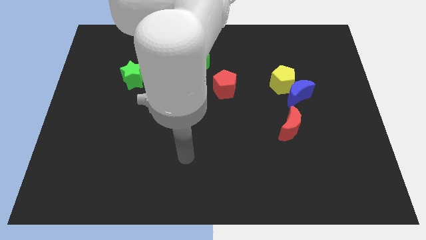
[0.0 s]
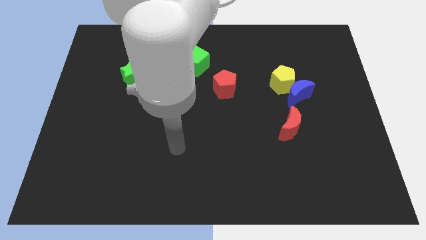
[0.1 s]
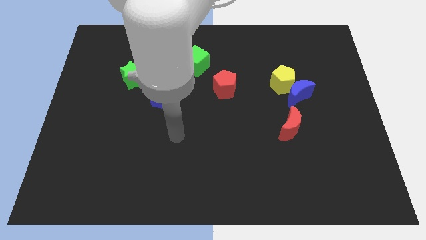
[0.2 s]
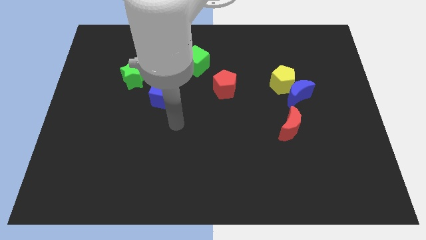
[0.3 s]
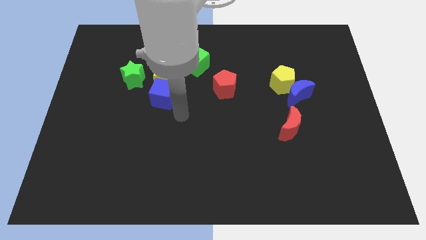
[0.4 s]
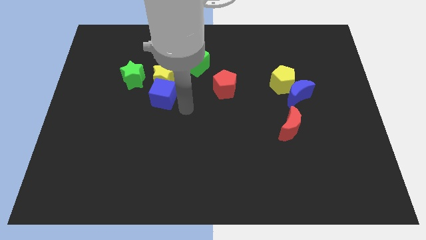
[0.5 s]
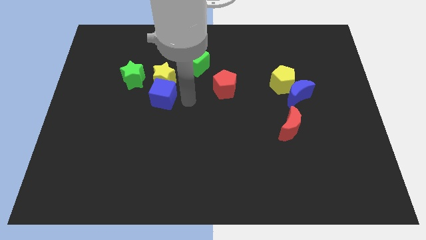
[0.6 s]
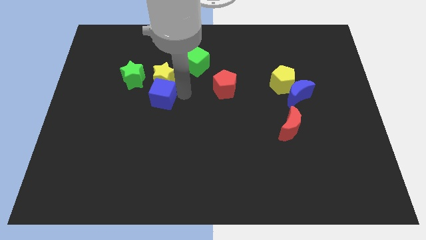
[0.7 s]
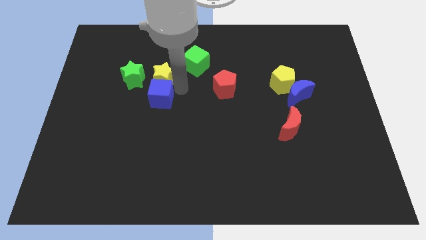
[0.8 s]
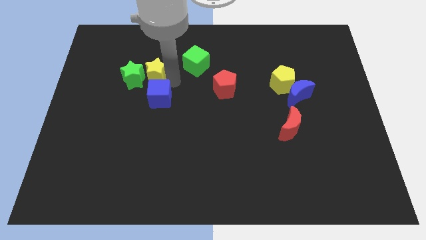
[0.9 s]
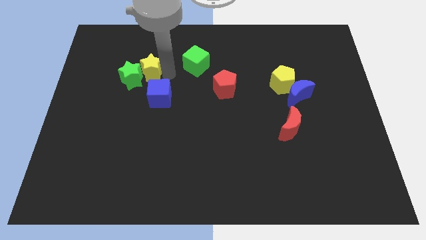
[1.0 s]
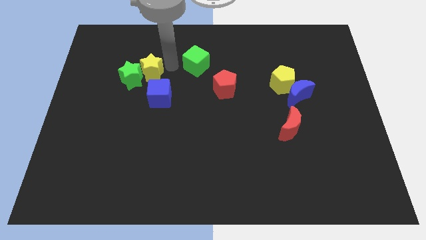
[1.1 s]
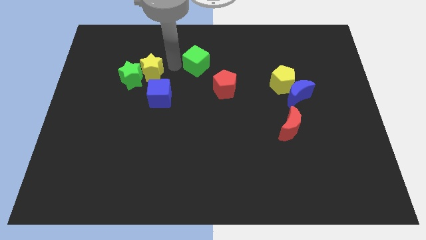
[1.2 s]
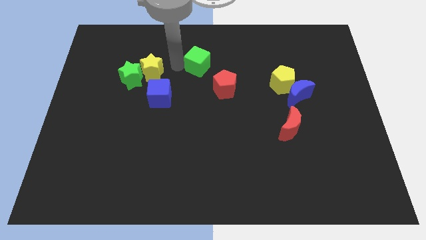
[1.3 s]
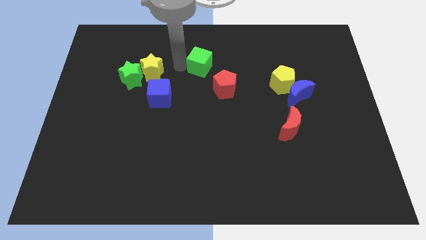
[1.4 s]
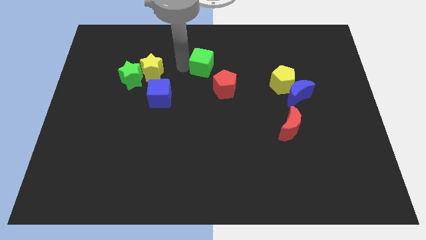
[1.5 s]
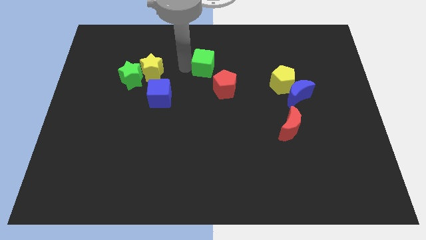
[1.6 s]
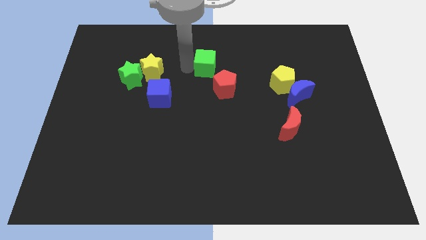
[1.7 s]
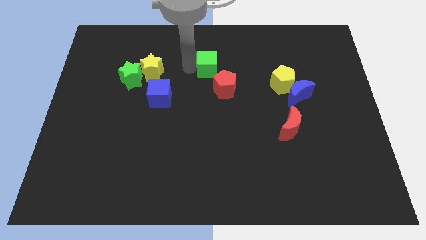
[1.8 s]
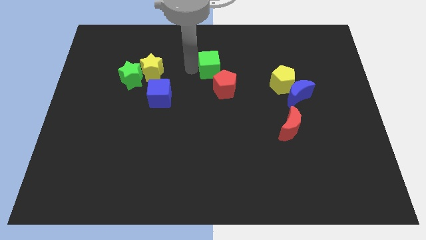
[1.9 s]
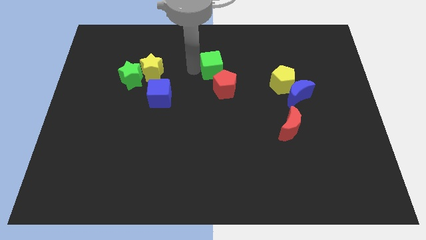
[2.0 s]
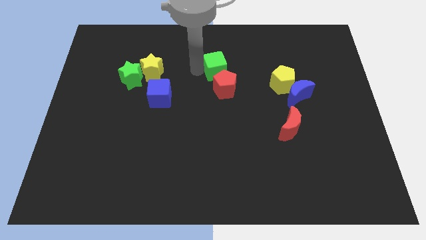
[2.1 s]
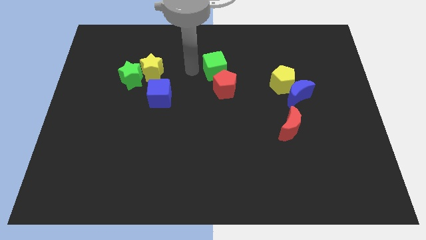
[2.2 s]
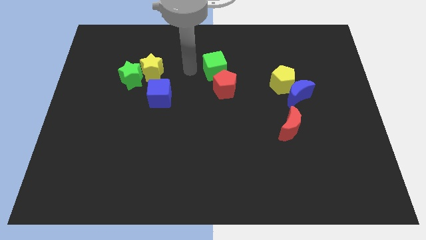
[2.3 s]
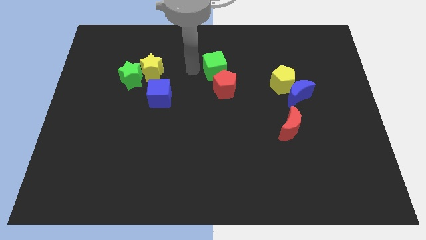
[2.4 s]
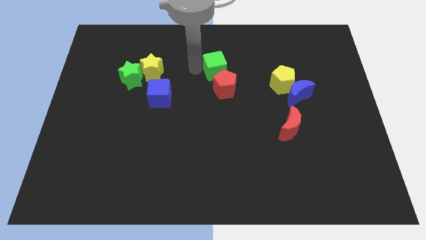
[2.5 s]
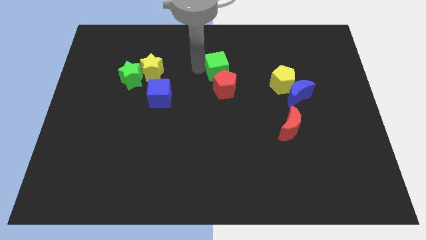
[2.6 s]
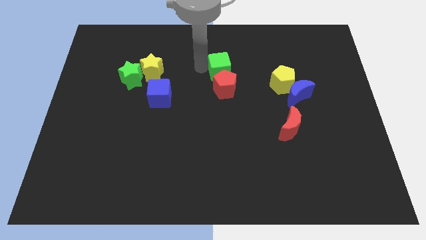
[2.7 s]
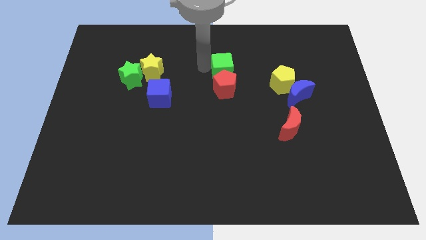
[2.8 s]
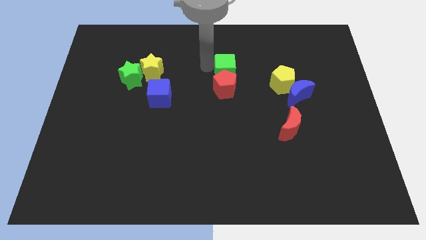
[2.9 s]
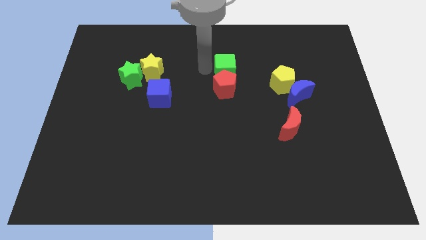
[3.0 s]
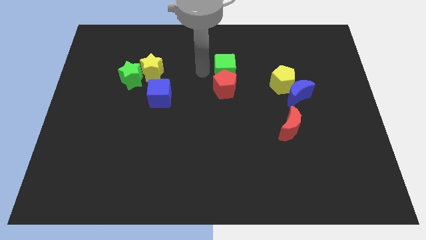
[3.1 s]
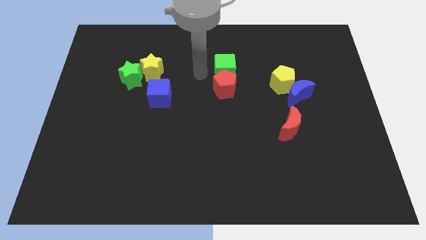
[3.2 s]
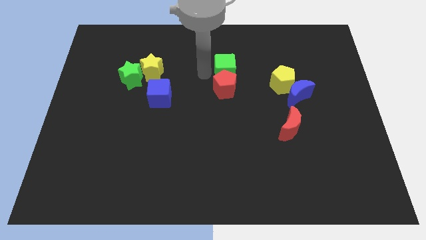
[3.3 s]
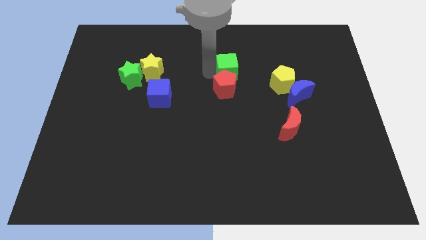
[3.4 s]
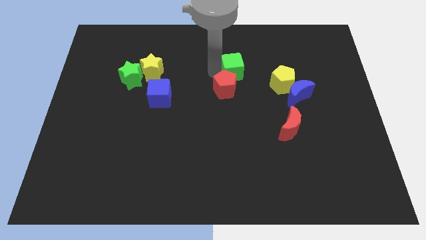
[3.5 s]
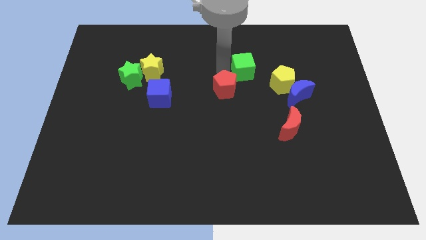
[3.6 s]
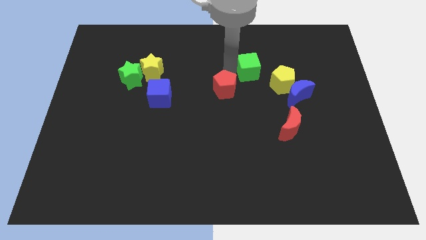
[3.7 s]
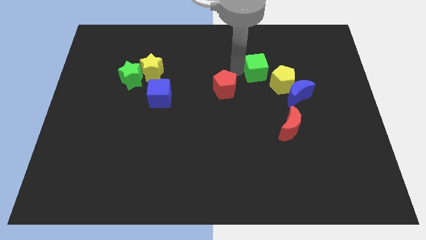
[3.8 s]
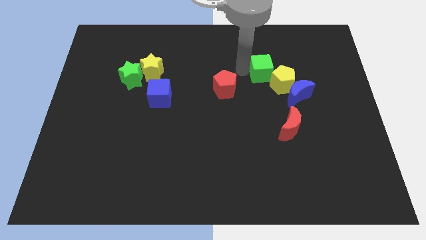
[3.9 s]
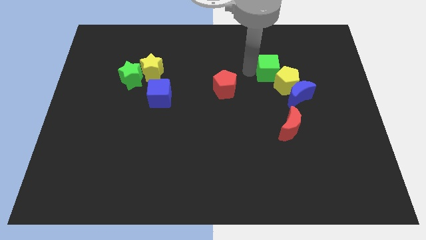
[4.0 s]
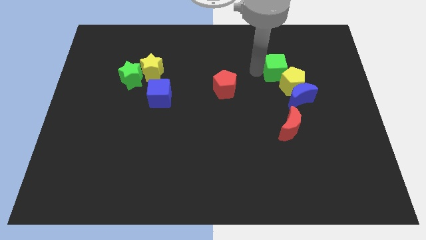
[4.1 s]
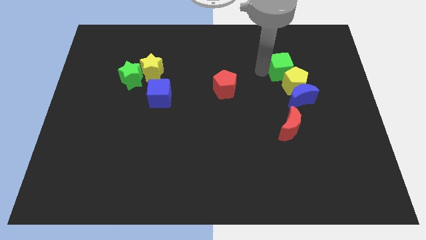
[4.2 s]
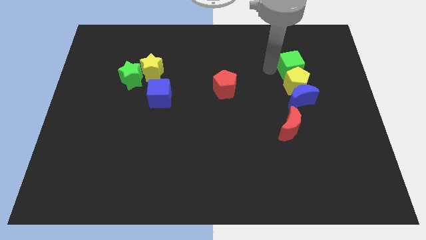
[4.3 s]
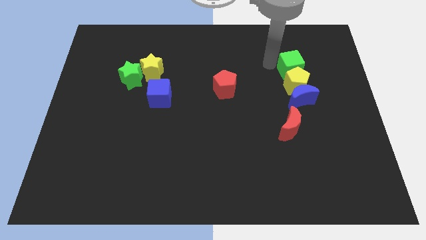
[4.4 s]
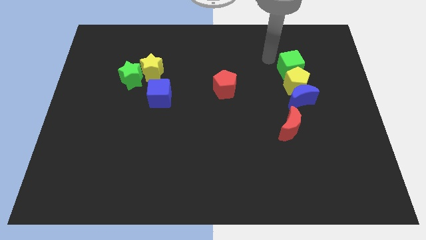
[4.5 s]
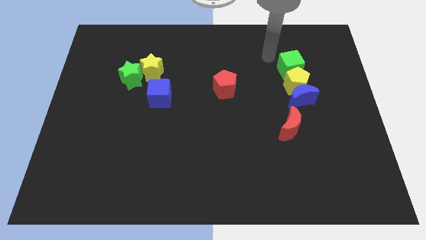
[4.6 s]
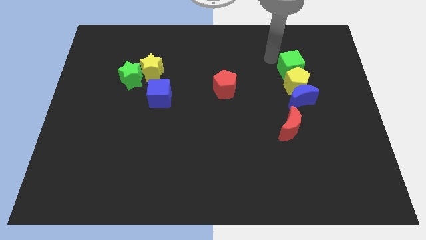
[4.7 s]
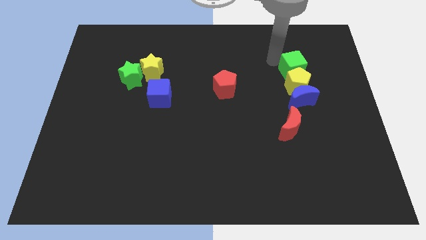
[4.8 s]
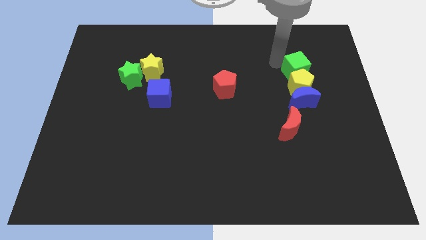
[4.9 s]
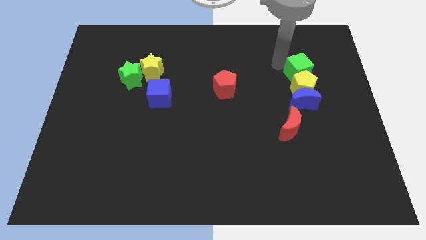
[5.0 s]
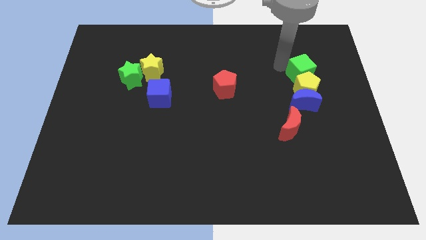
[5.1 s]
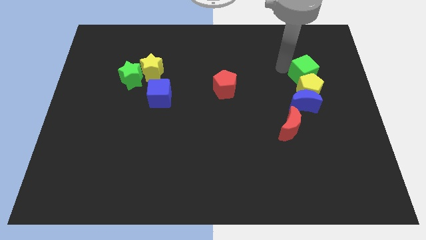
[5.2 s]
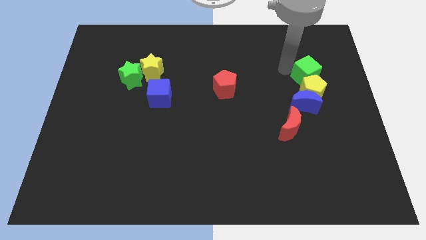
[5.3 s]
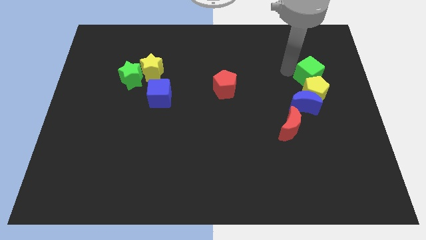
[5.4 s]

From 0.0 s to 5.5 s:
slide the green cube diagonally up and to the right of the blue moon

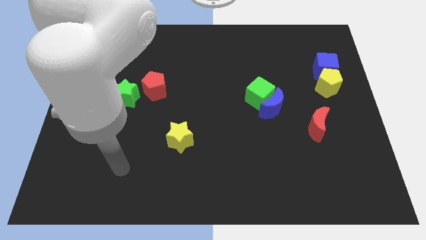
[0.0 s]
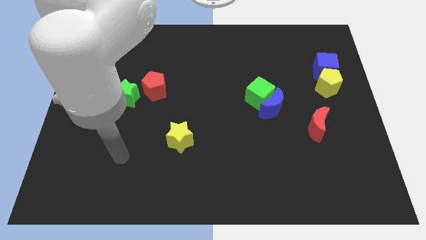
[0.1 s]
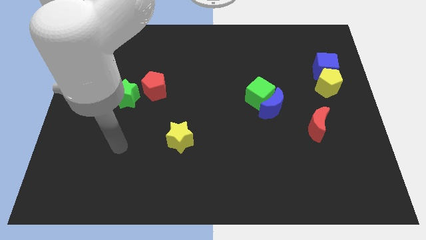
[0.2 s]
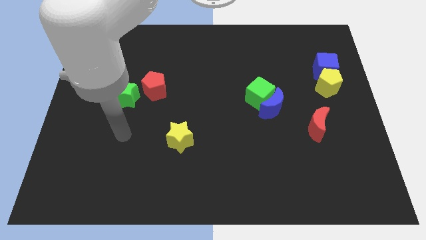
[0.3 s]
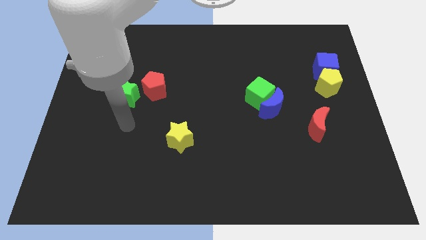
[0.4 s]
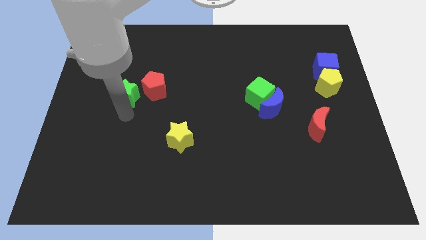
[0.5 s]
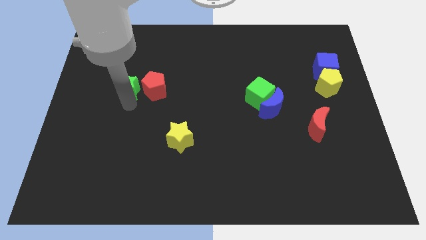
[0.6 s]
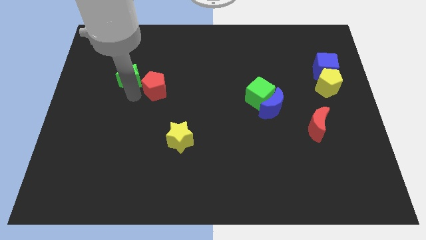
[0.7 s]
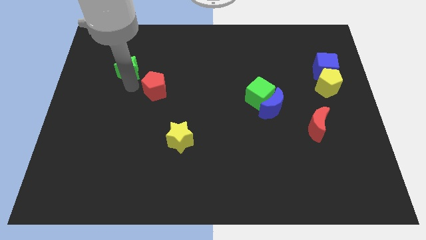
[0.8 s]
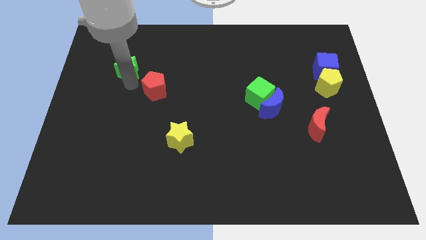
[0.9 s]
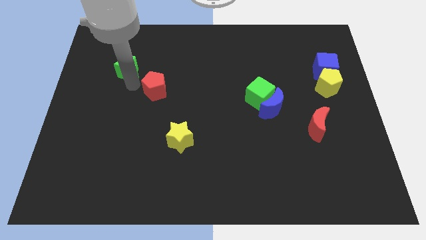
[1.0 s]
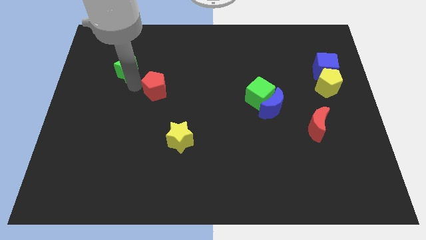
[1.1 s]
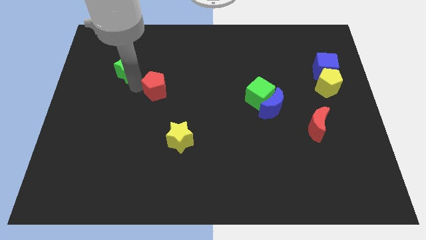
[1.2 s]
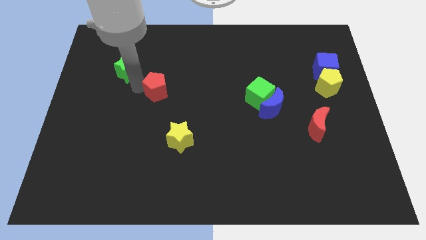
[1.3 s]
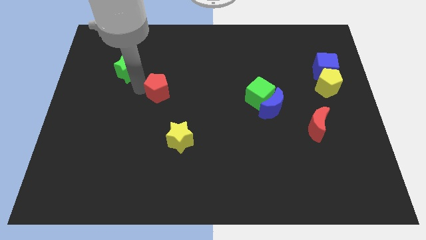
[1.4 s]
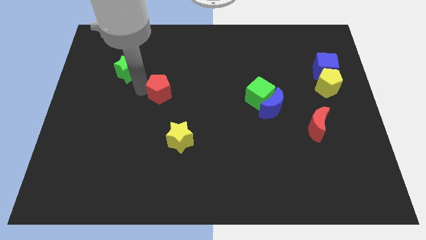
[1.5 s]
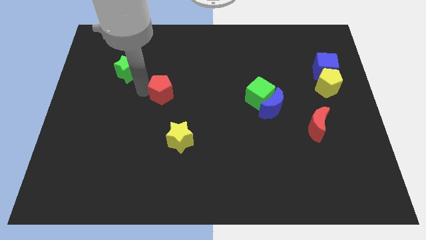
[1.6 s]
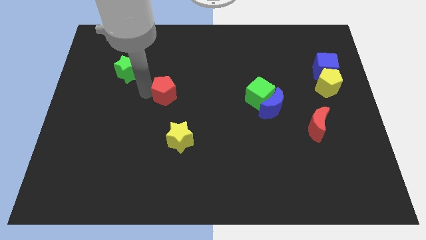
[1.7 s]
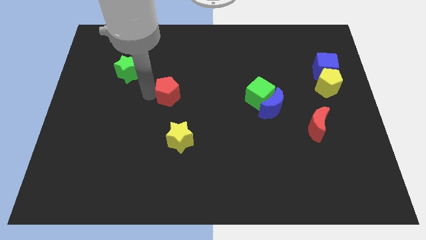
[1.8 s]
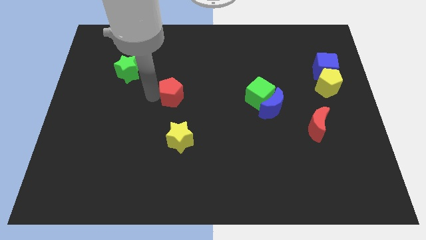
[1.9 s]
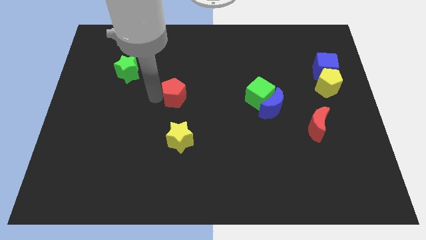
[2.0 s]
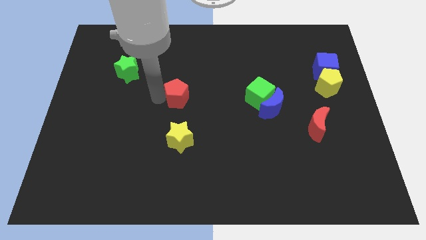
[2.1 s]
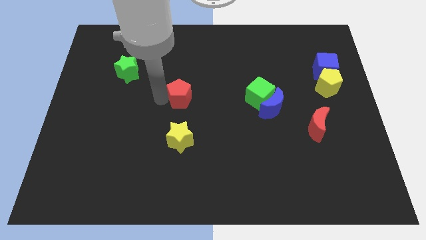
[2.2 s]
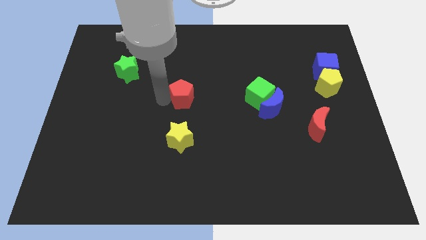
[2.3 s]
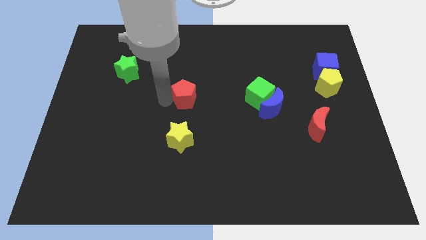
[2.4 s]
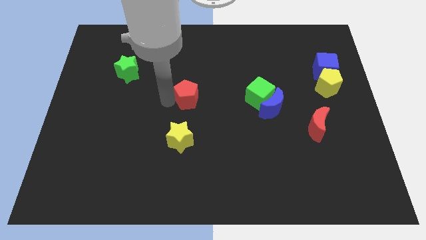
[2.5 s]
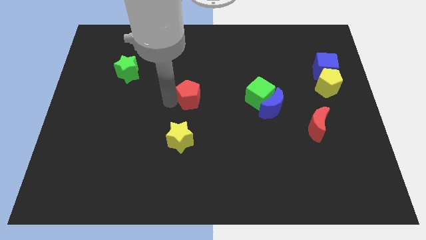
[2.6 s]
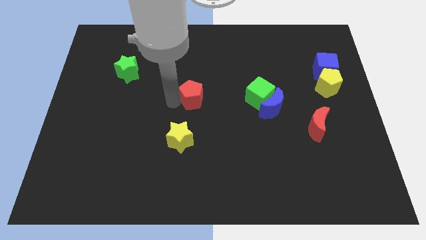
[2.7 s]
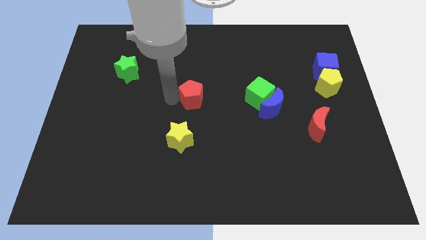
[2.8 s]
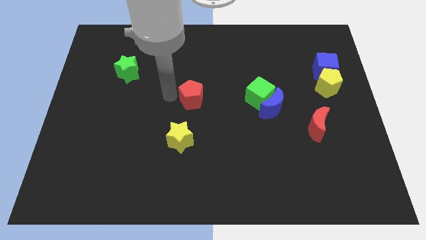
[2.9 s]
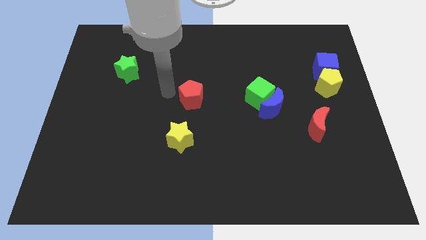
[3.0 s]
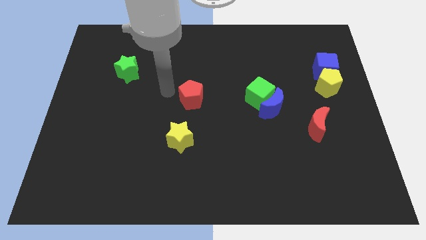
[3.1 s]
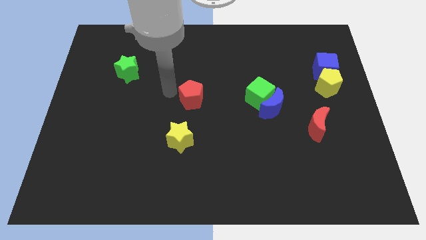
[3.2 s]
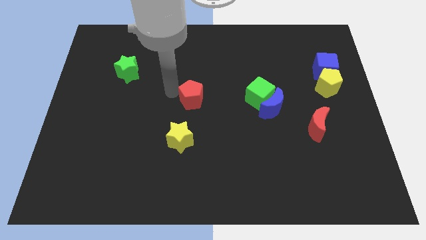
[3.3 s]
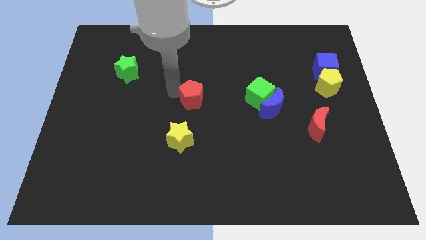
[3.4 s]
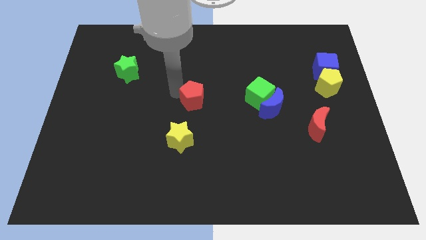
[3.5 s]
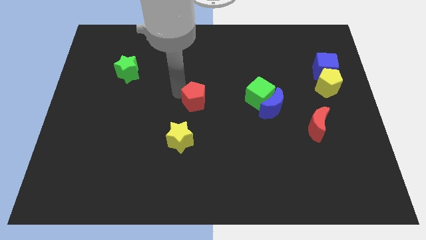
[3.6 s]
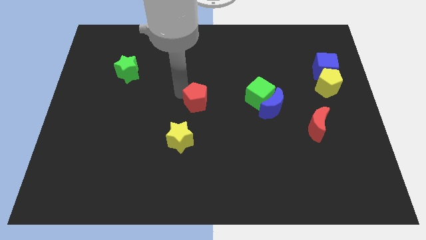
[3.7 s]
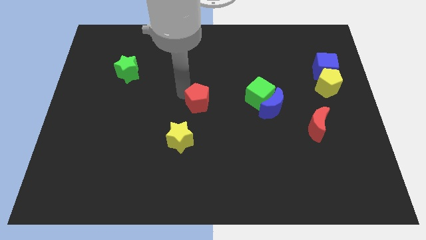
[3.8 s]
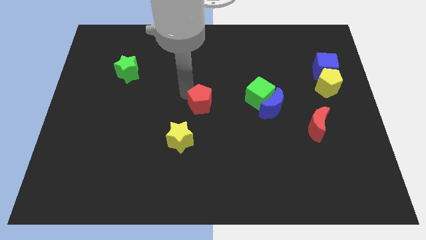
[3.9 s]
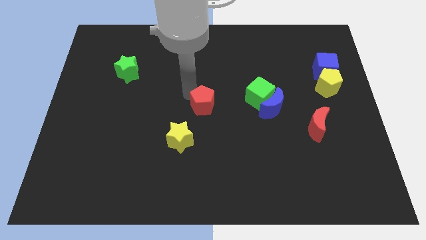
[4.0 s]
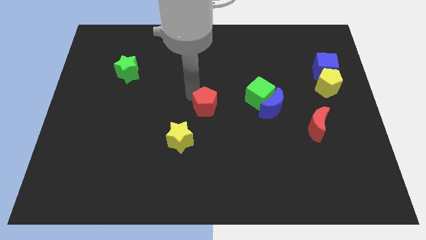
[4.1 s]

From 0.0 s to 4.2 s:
put the red pentagon to the left of the blue moon
